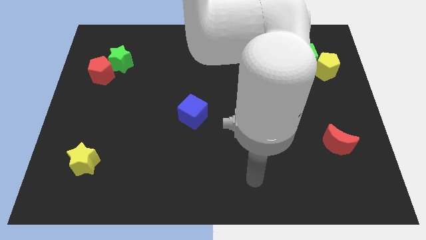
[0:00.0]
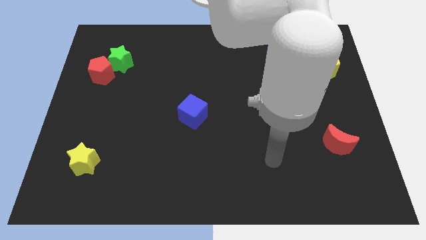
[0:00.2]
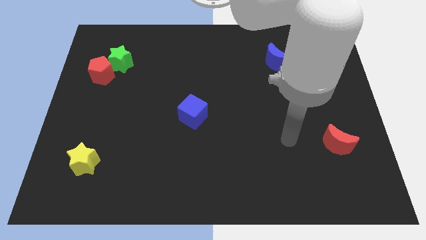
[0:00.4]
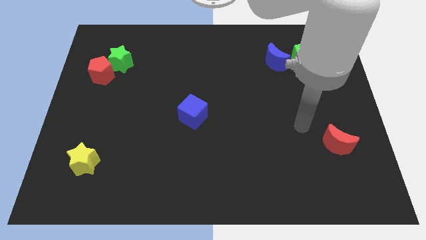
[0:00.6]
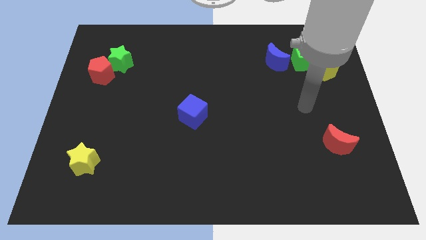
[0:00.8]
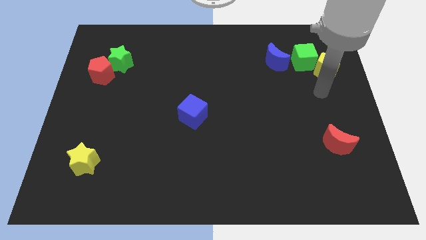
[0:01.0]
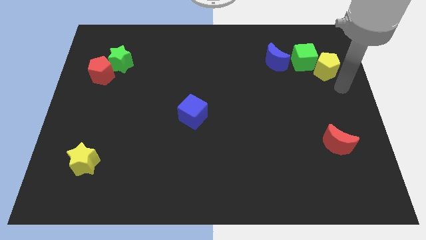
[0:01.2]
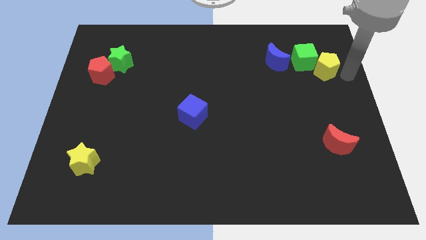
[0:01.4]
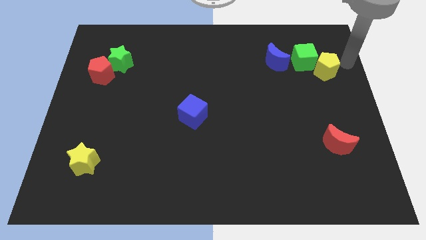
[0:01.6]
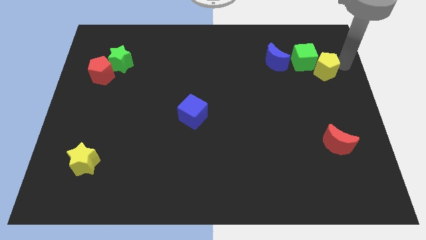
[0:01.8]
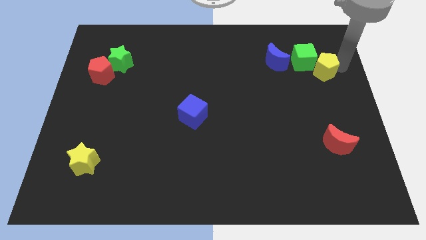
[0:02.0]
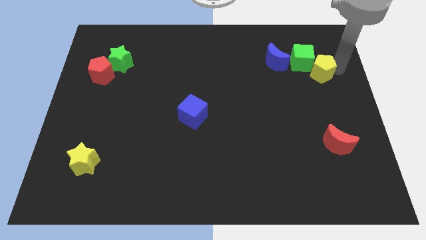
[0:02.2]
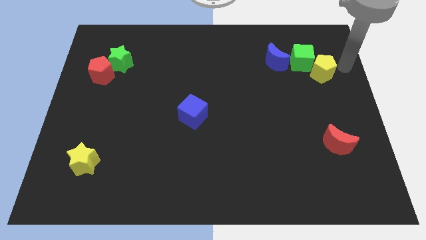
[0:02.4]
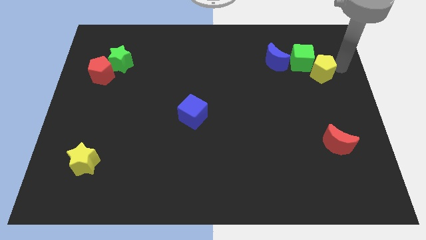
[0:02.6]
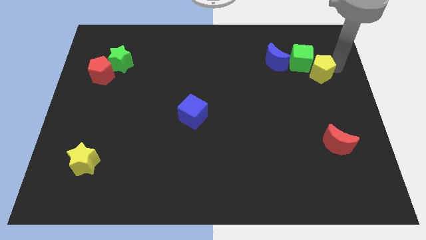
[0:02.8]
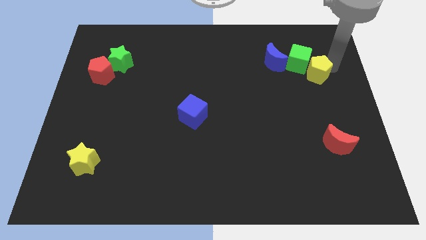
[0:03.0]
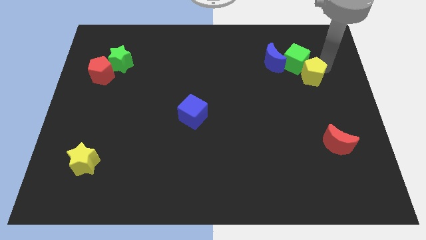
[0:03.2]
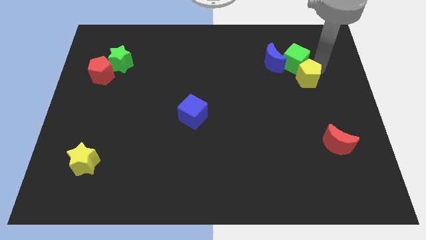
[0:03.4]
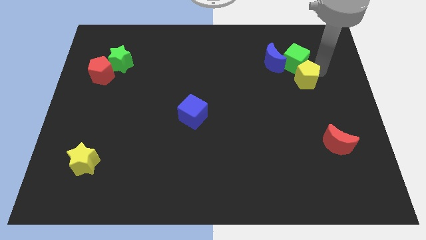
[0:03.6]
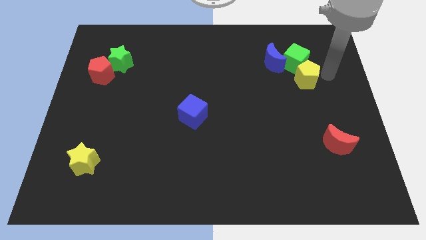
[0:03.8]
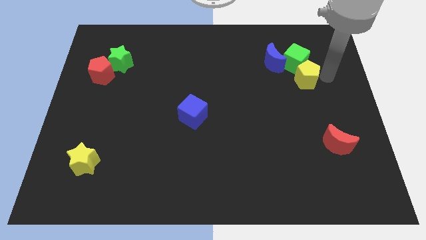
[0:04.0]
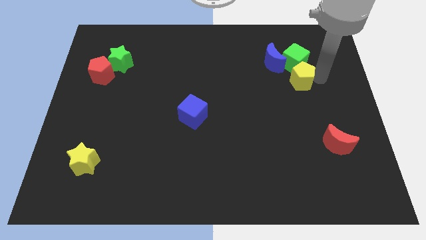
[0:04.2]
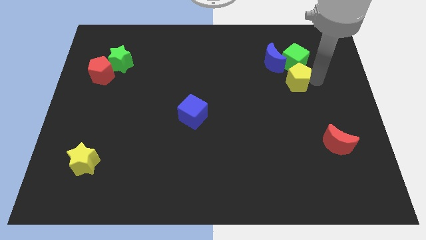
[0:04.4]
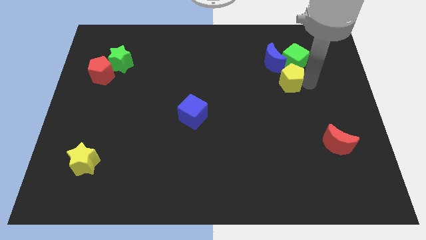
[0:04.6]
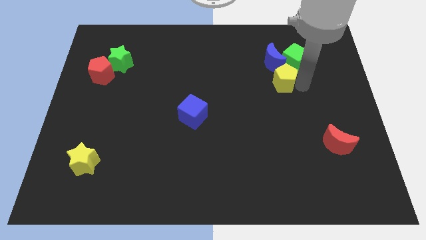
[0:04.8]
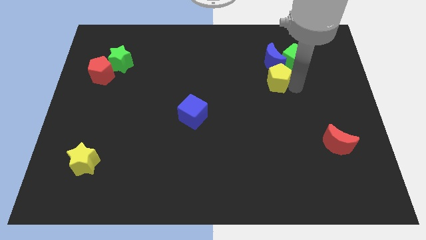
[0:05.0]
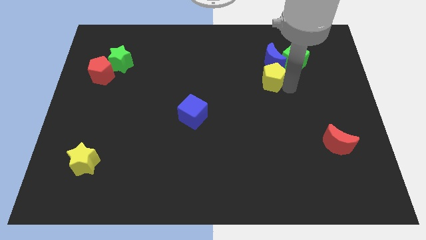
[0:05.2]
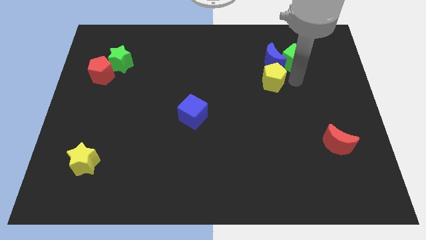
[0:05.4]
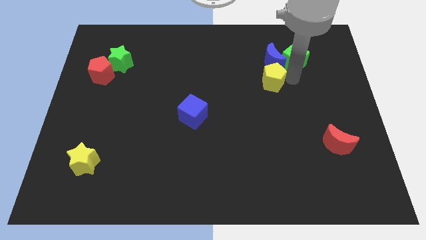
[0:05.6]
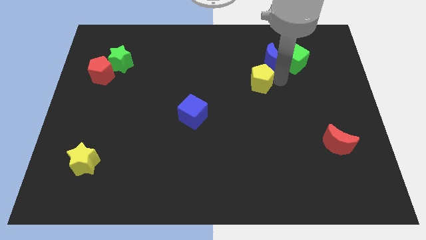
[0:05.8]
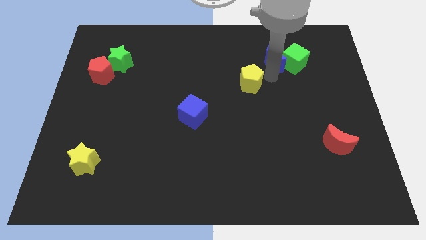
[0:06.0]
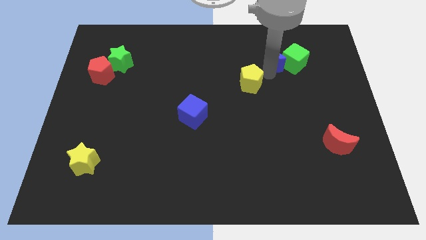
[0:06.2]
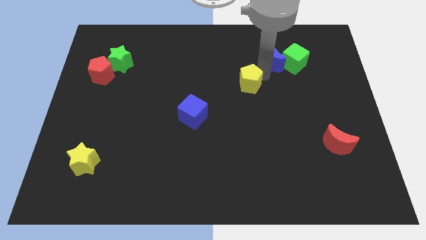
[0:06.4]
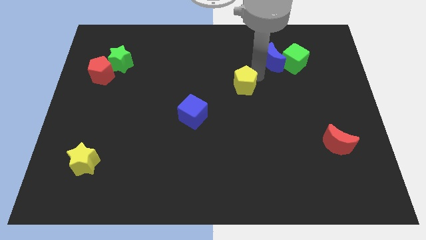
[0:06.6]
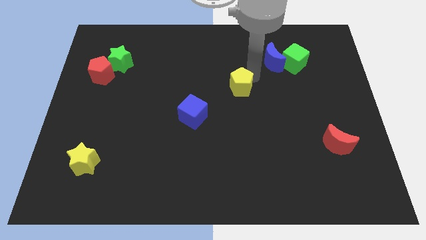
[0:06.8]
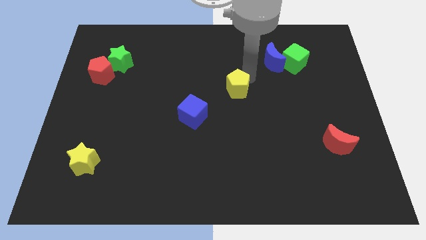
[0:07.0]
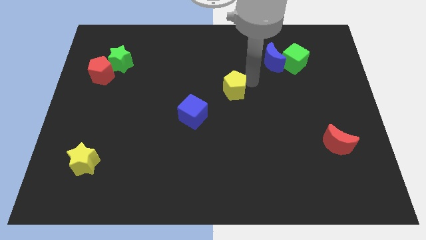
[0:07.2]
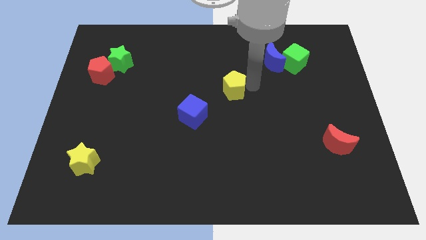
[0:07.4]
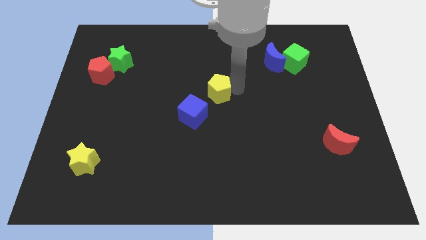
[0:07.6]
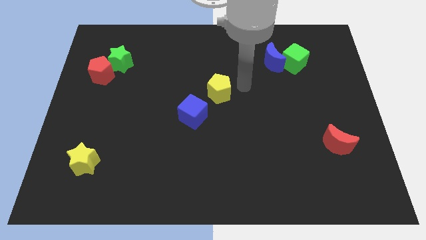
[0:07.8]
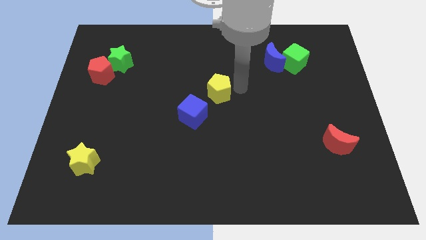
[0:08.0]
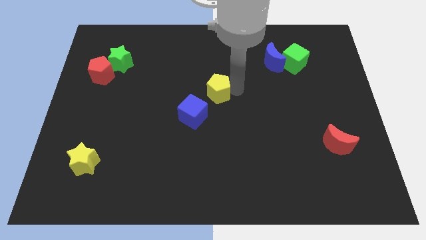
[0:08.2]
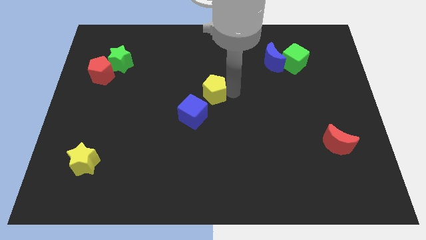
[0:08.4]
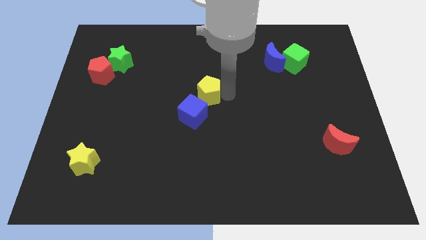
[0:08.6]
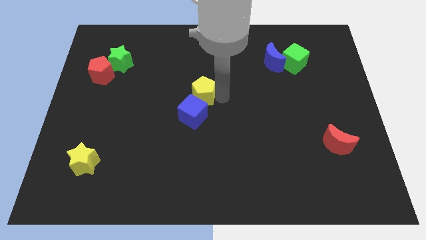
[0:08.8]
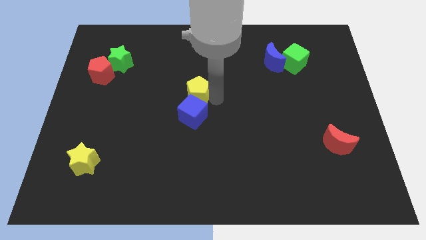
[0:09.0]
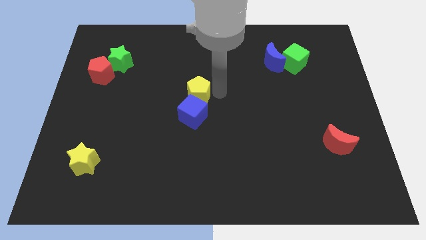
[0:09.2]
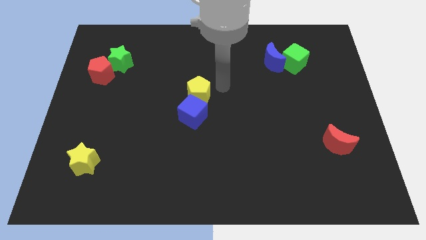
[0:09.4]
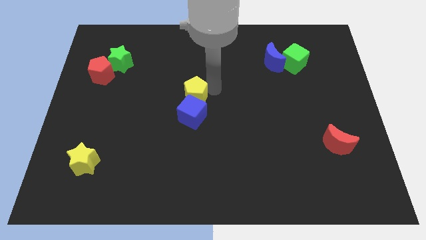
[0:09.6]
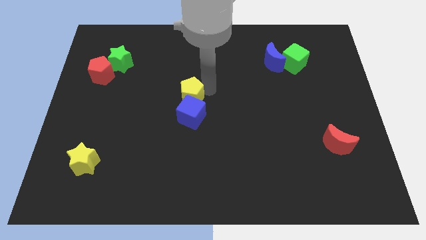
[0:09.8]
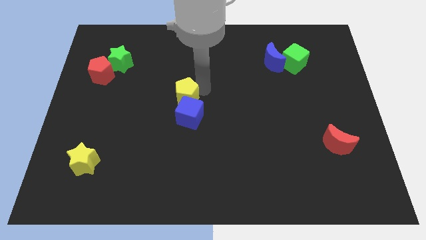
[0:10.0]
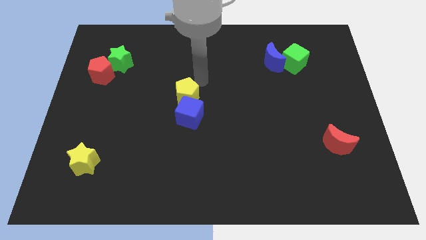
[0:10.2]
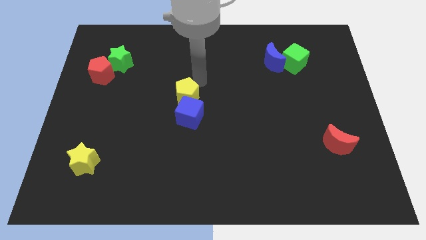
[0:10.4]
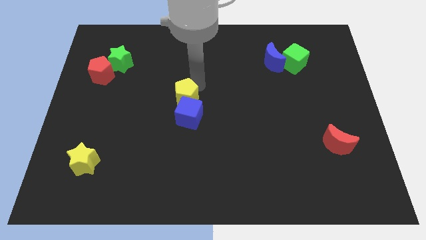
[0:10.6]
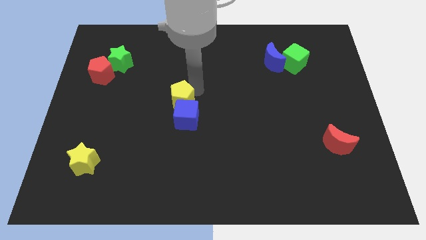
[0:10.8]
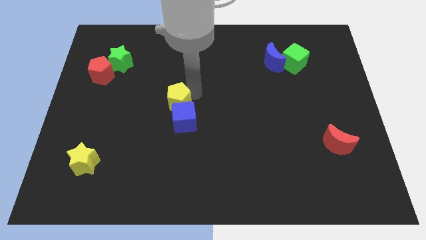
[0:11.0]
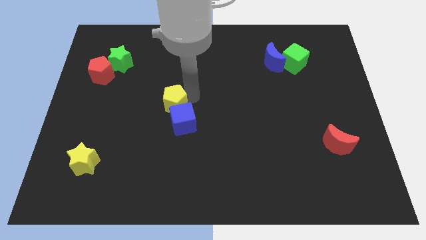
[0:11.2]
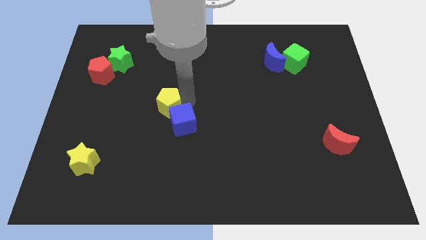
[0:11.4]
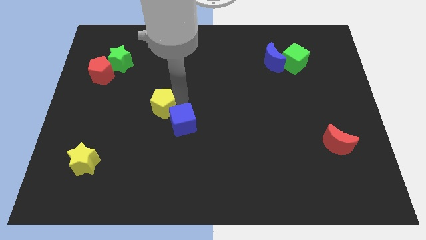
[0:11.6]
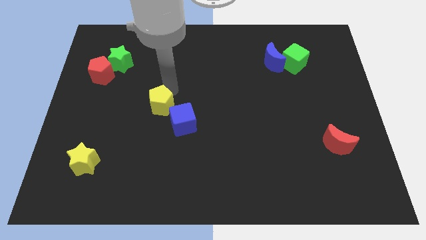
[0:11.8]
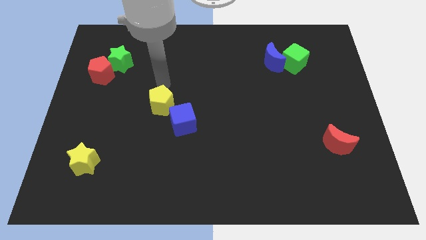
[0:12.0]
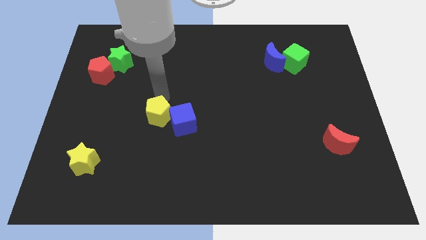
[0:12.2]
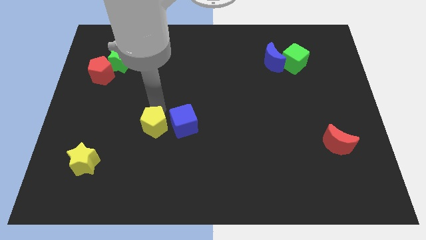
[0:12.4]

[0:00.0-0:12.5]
move the yellow pentagon diagonally down and to the left of the blue cube
